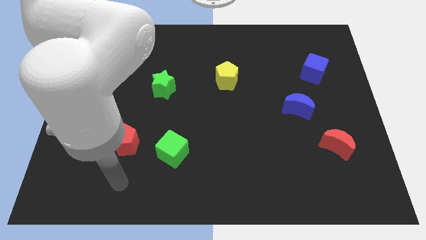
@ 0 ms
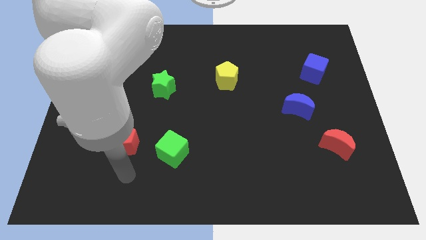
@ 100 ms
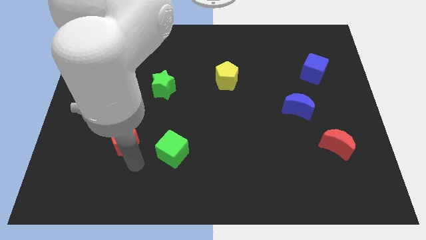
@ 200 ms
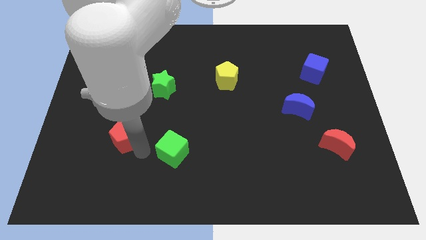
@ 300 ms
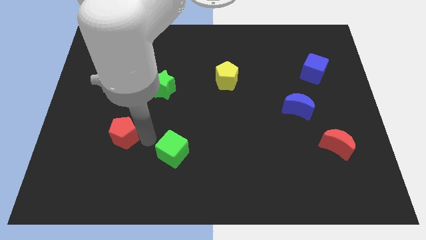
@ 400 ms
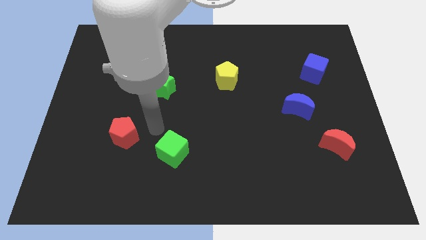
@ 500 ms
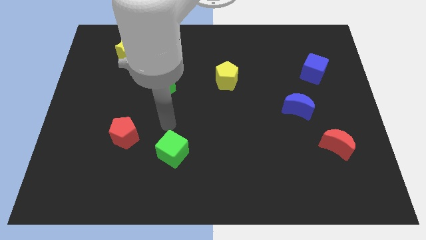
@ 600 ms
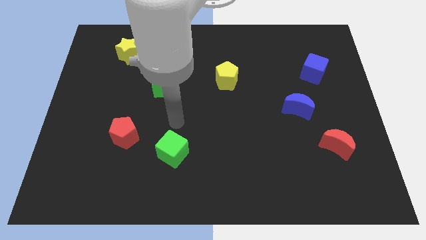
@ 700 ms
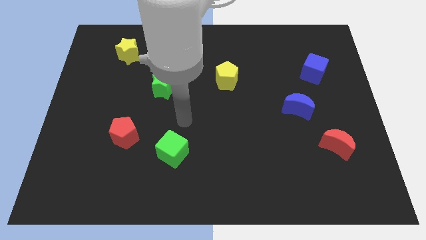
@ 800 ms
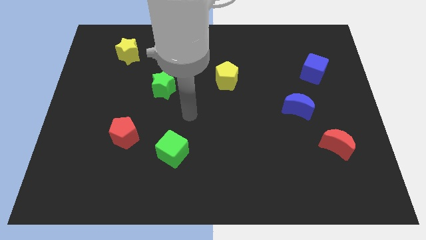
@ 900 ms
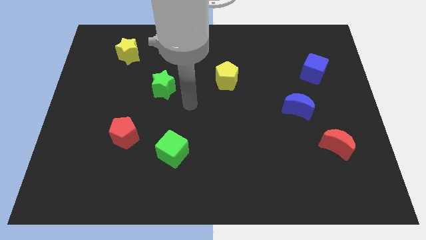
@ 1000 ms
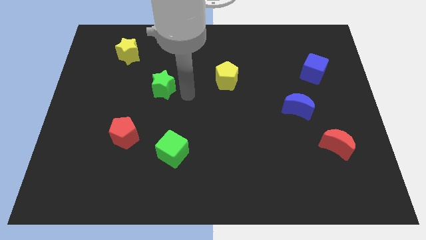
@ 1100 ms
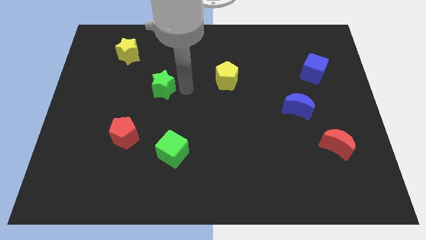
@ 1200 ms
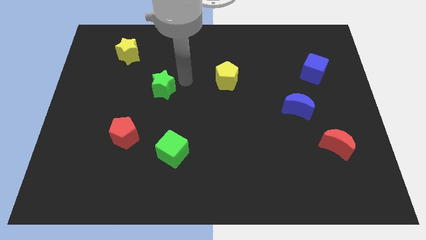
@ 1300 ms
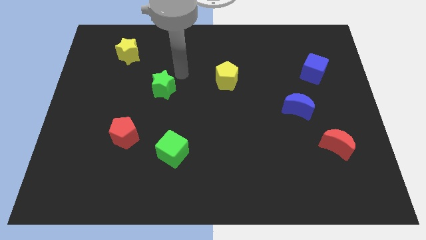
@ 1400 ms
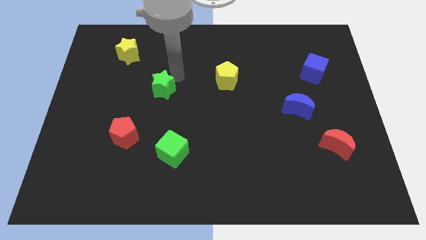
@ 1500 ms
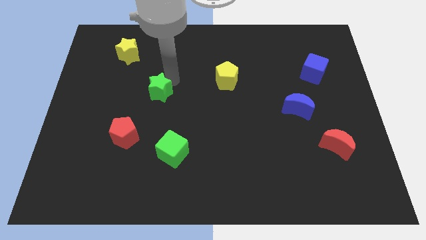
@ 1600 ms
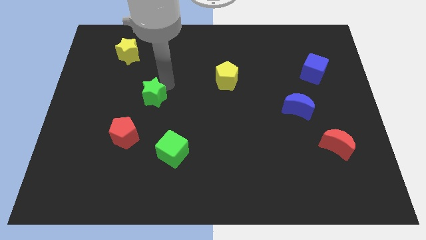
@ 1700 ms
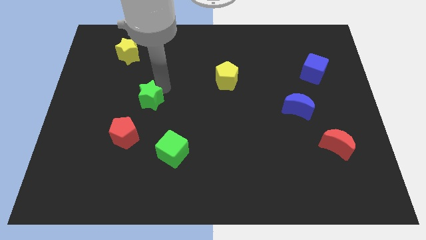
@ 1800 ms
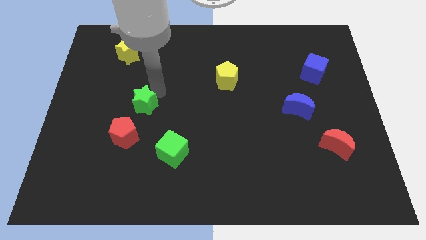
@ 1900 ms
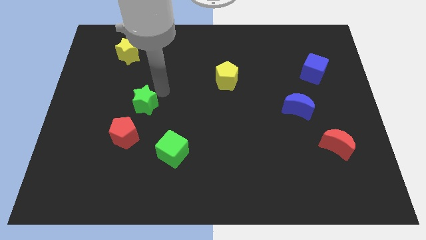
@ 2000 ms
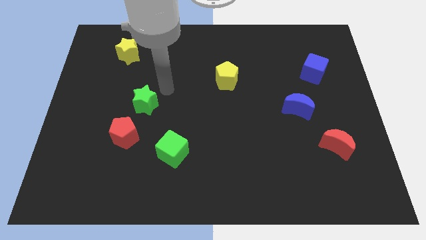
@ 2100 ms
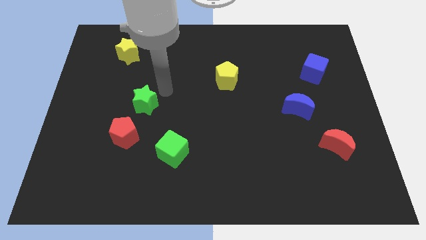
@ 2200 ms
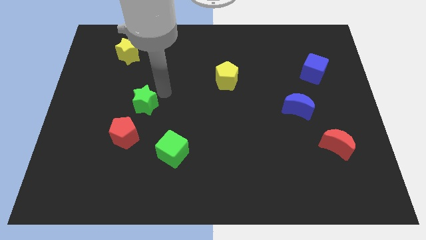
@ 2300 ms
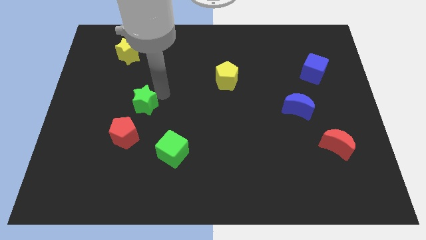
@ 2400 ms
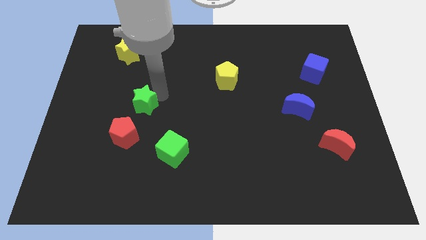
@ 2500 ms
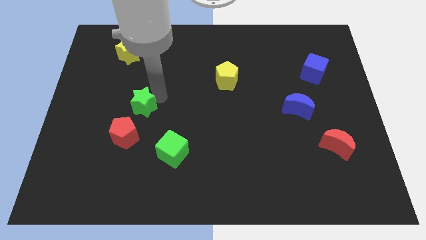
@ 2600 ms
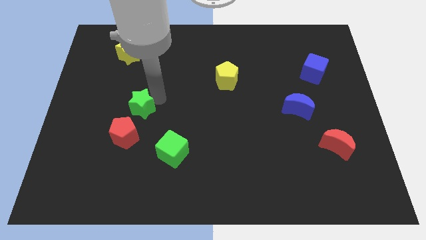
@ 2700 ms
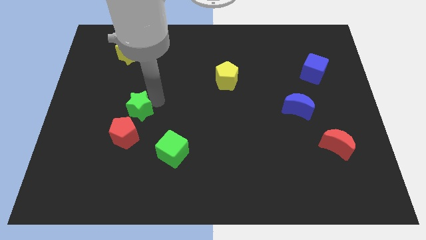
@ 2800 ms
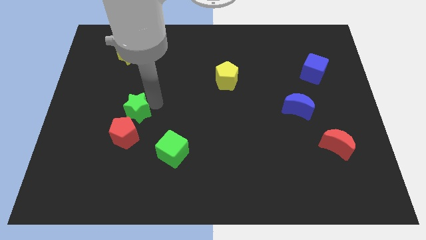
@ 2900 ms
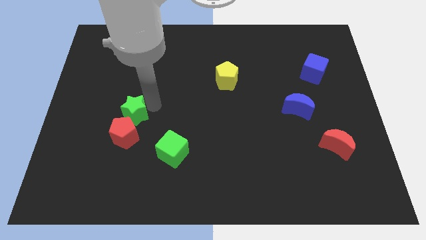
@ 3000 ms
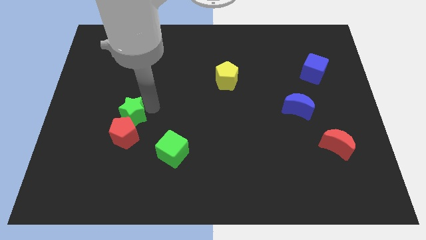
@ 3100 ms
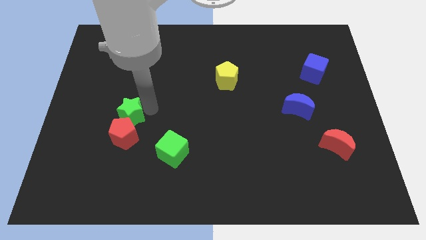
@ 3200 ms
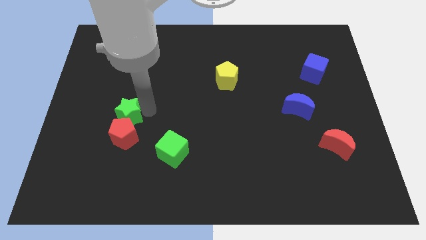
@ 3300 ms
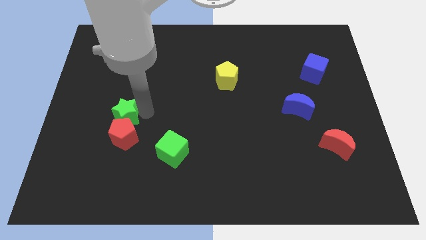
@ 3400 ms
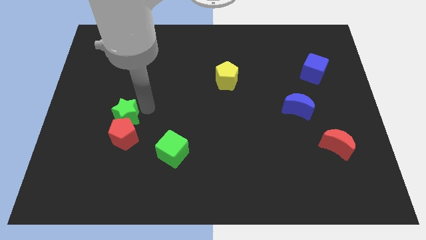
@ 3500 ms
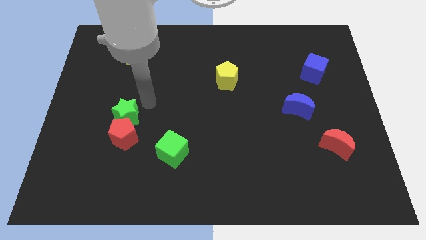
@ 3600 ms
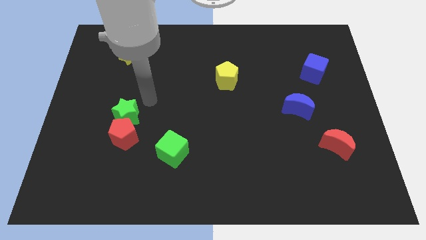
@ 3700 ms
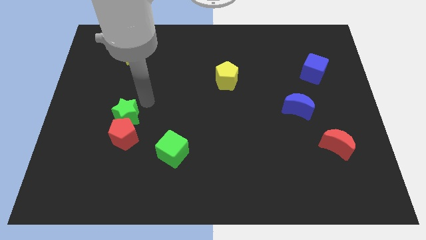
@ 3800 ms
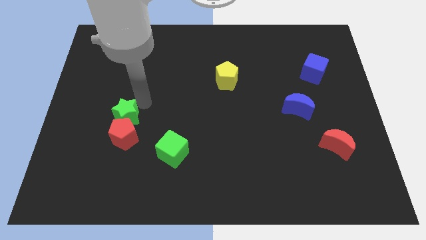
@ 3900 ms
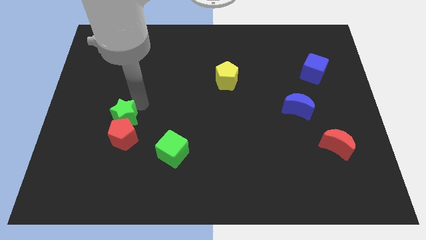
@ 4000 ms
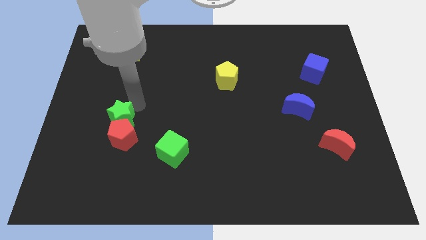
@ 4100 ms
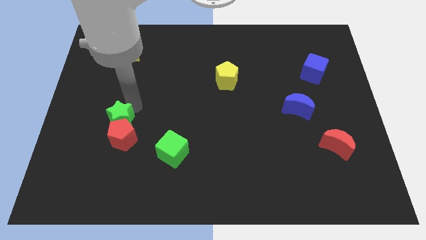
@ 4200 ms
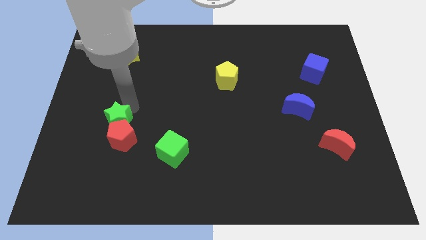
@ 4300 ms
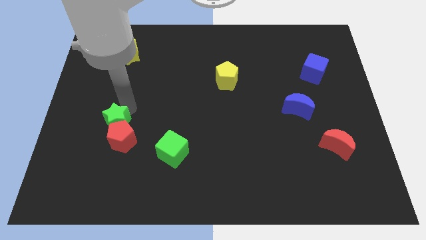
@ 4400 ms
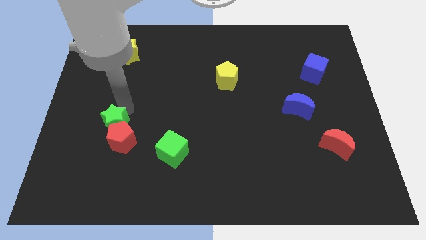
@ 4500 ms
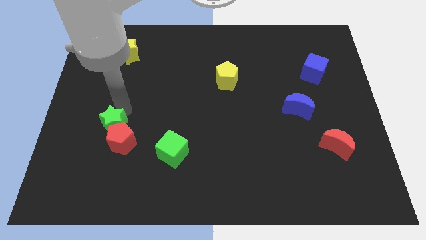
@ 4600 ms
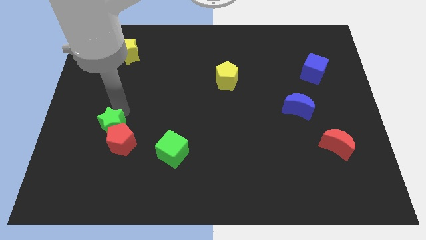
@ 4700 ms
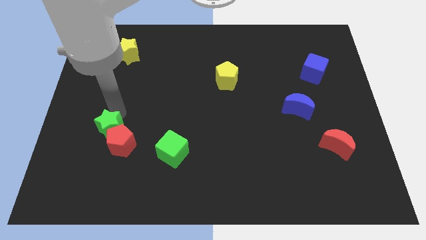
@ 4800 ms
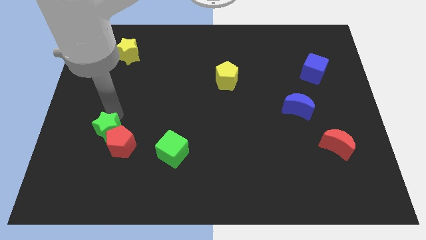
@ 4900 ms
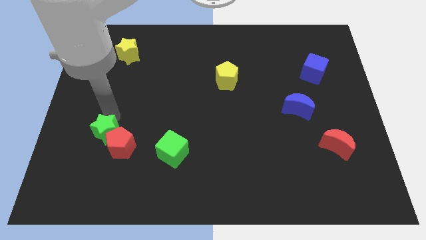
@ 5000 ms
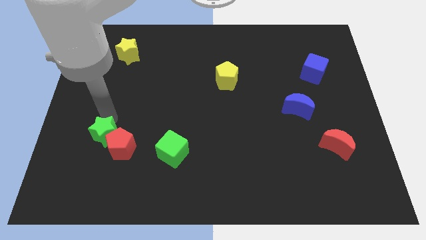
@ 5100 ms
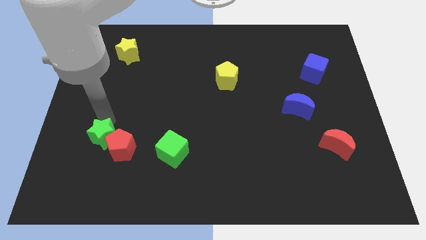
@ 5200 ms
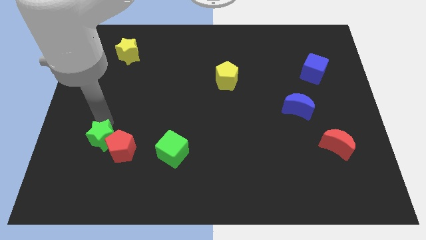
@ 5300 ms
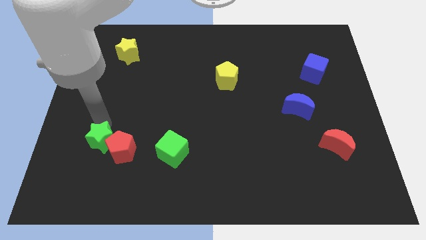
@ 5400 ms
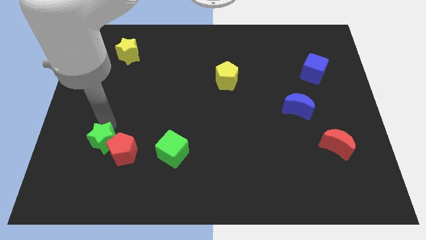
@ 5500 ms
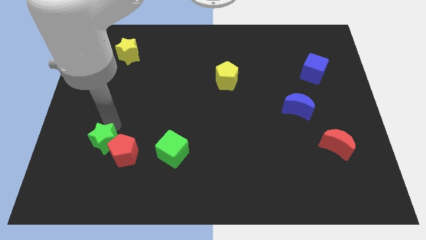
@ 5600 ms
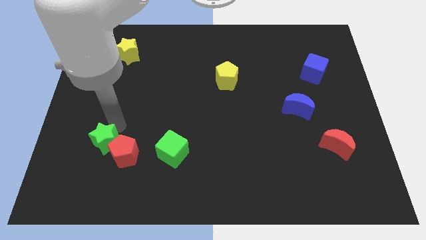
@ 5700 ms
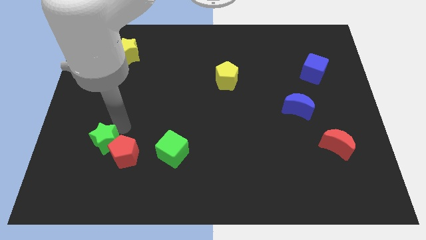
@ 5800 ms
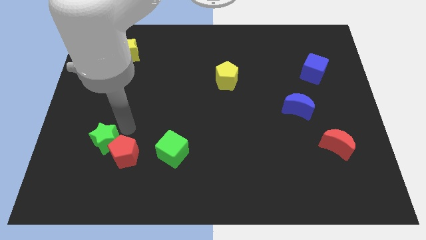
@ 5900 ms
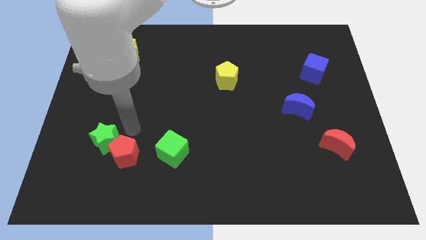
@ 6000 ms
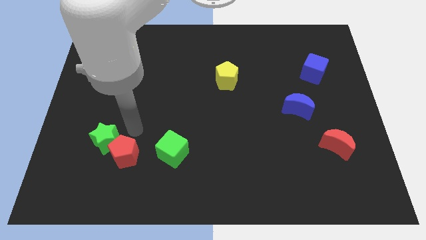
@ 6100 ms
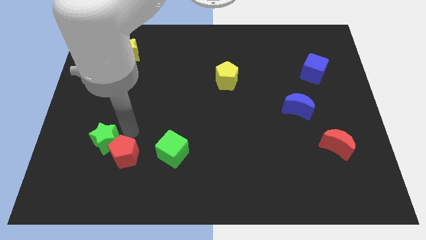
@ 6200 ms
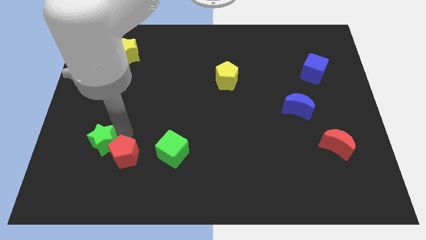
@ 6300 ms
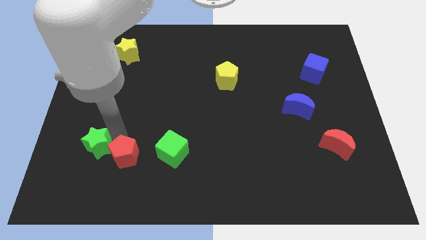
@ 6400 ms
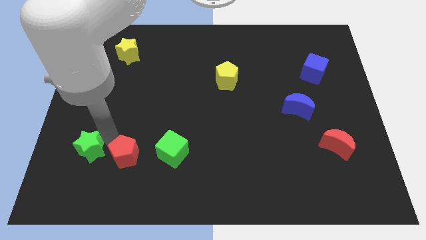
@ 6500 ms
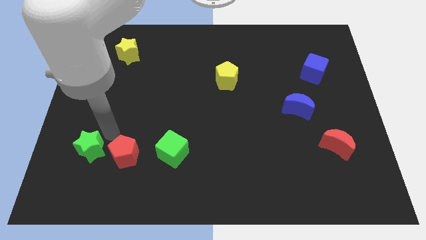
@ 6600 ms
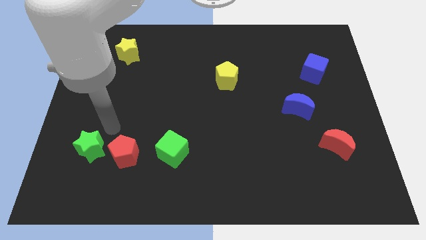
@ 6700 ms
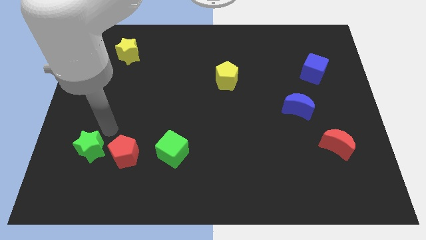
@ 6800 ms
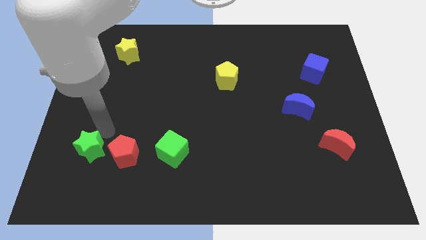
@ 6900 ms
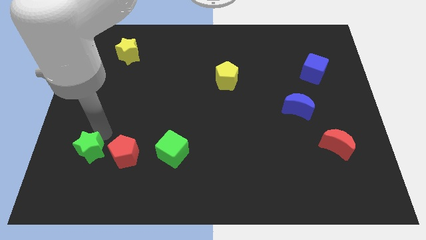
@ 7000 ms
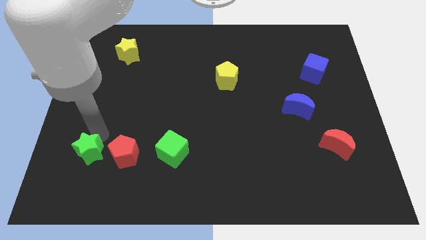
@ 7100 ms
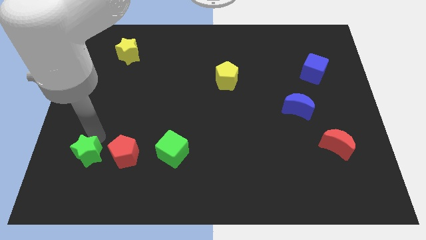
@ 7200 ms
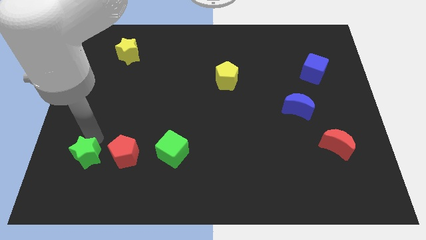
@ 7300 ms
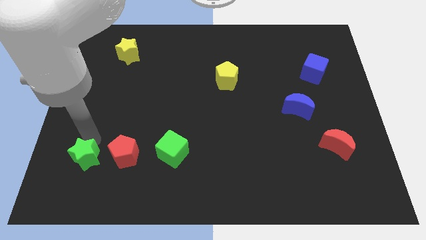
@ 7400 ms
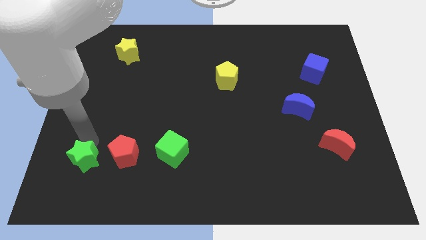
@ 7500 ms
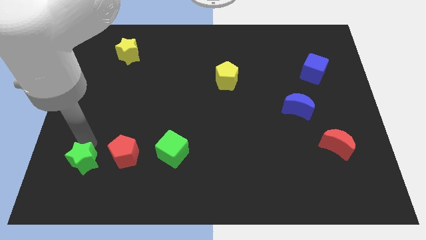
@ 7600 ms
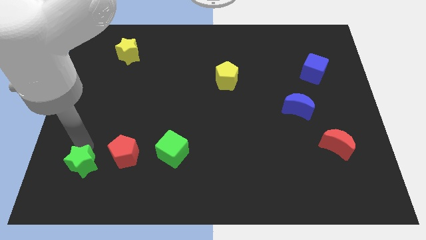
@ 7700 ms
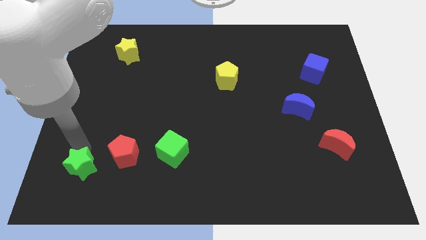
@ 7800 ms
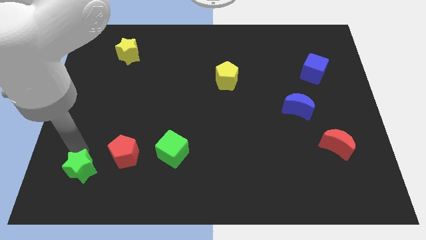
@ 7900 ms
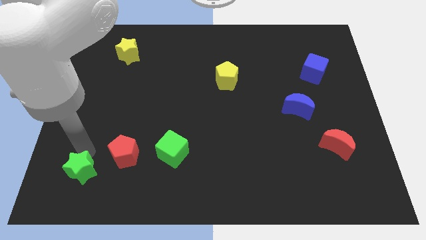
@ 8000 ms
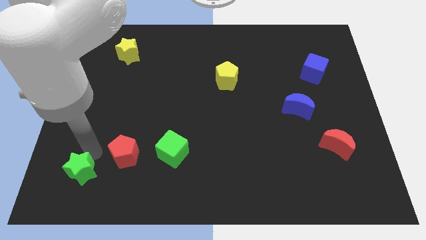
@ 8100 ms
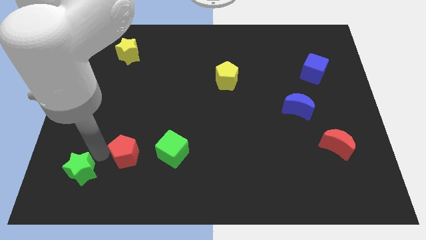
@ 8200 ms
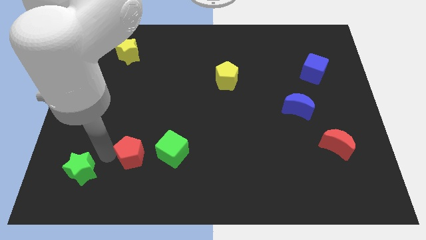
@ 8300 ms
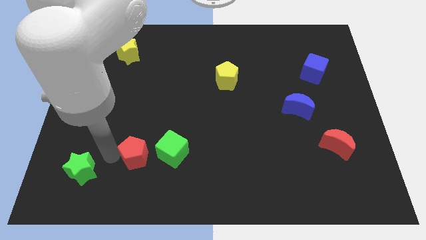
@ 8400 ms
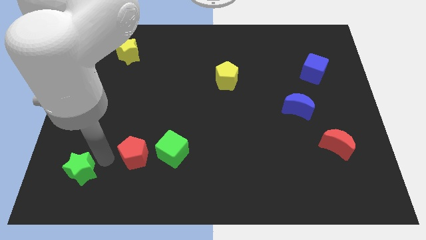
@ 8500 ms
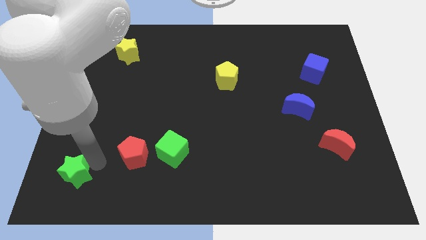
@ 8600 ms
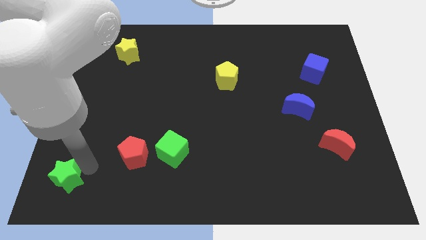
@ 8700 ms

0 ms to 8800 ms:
push the green star to the bottom left corner
